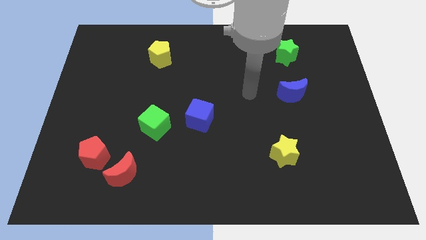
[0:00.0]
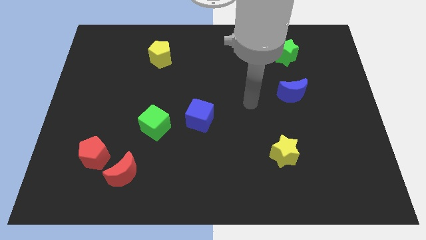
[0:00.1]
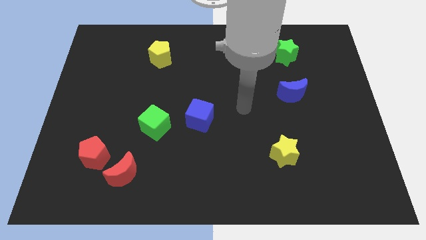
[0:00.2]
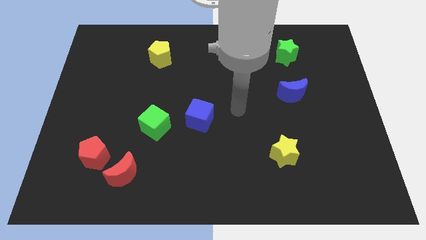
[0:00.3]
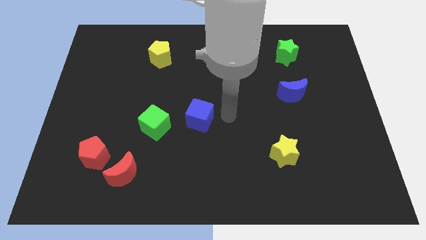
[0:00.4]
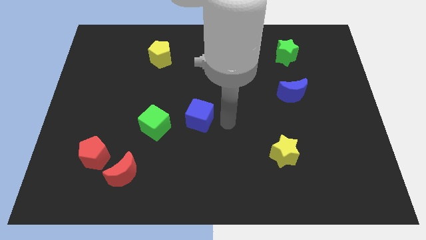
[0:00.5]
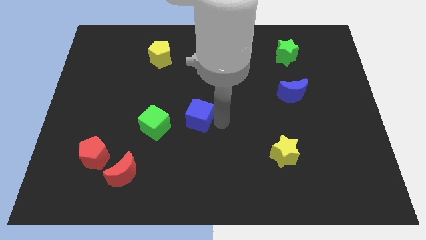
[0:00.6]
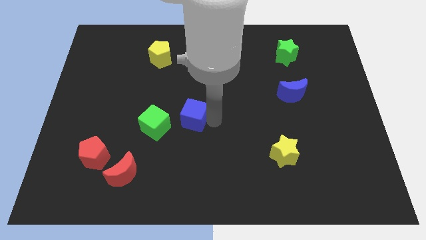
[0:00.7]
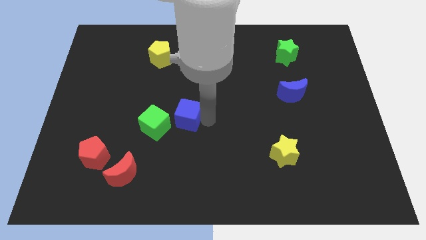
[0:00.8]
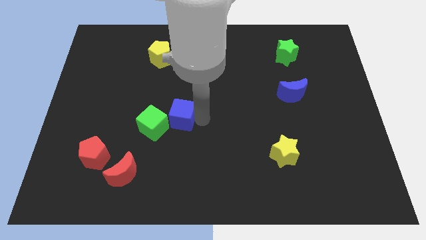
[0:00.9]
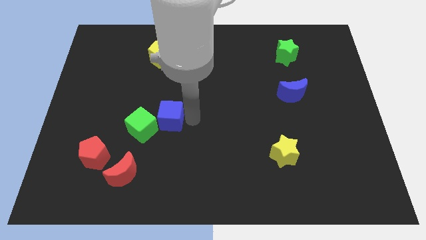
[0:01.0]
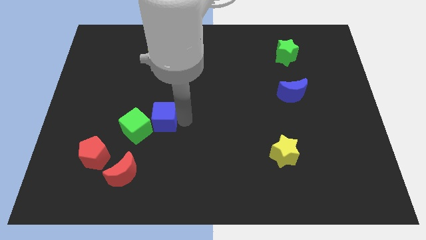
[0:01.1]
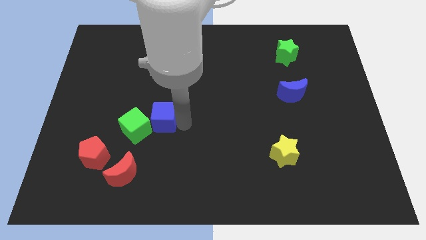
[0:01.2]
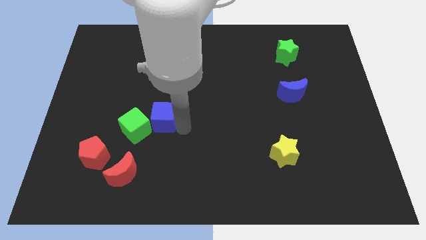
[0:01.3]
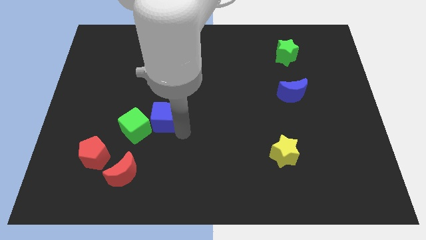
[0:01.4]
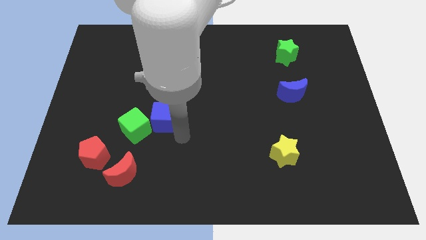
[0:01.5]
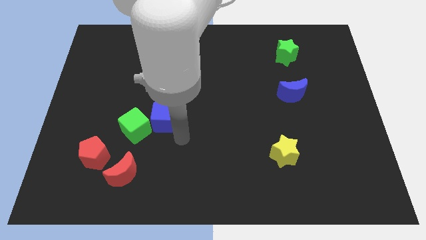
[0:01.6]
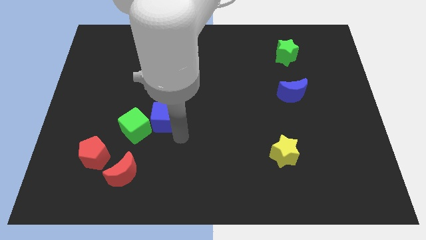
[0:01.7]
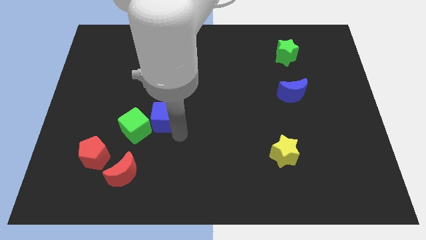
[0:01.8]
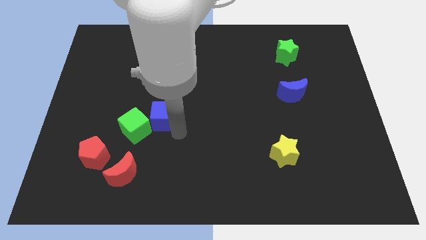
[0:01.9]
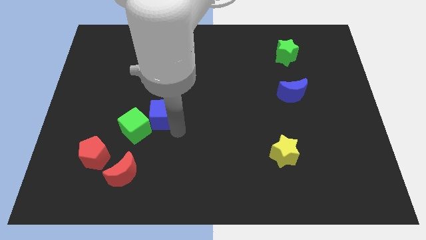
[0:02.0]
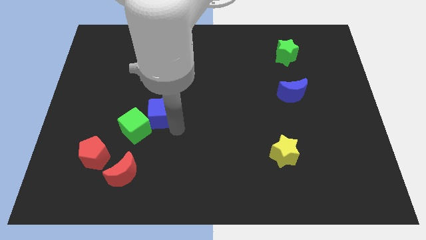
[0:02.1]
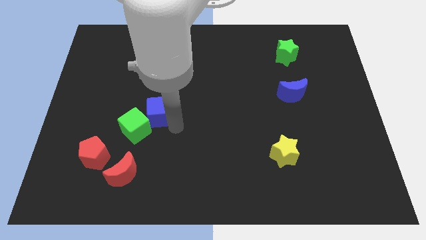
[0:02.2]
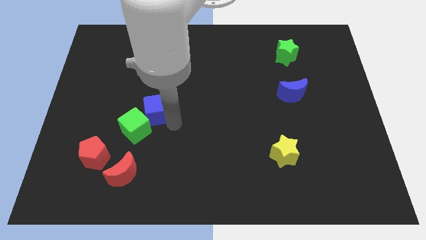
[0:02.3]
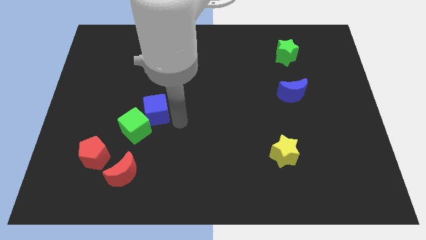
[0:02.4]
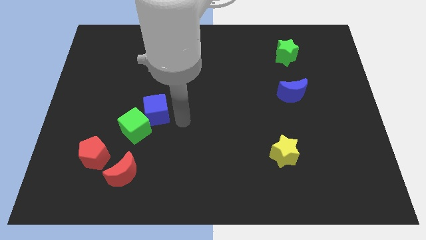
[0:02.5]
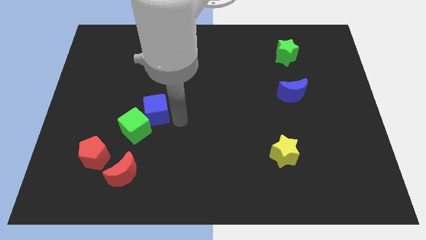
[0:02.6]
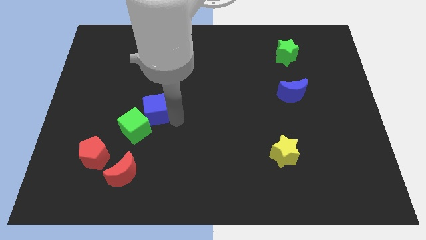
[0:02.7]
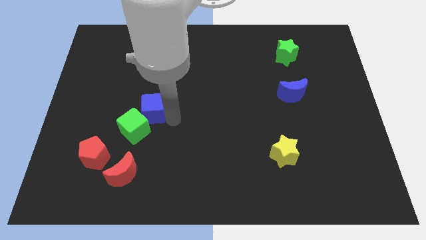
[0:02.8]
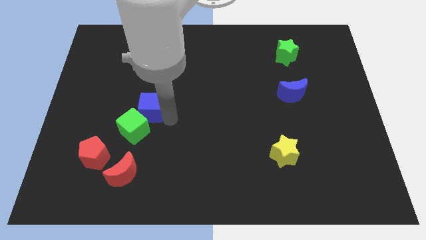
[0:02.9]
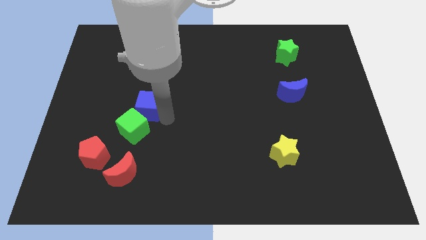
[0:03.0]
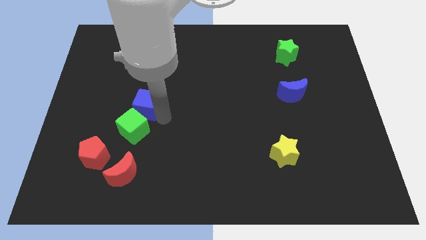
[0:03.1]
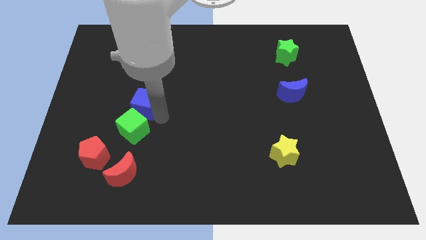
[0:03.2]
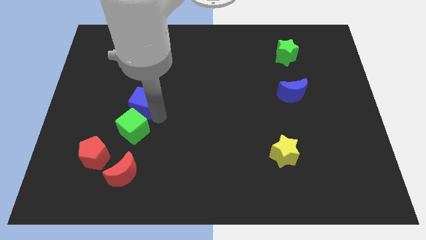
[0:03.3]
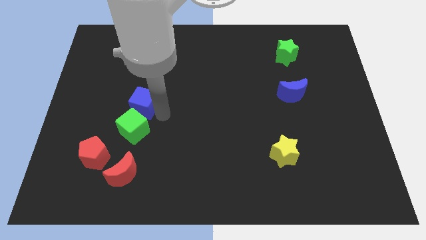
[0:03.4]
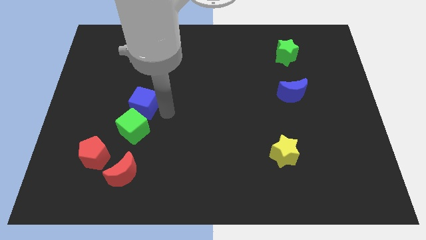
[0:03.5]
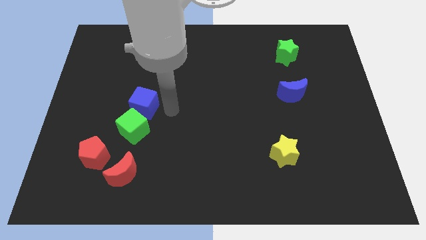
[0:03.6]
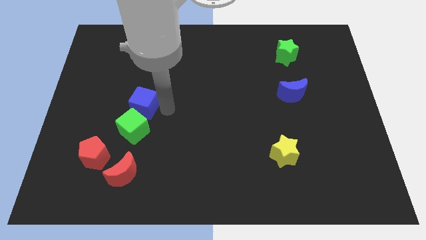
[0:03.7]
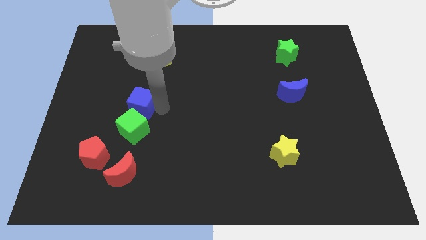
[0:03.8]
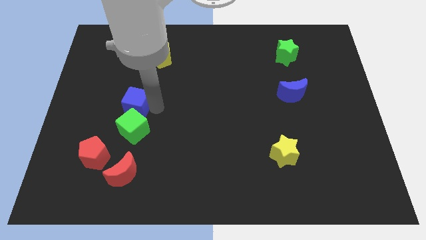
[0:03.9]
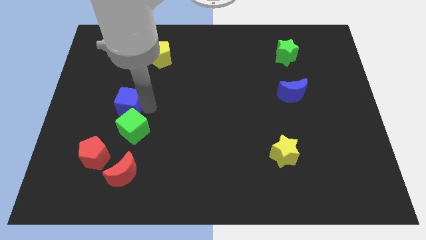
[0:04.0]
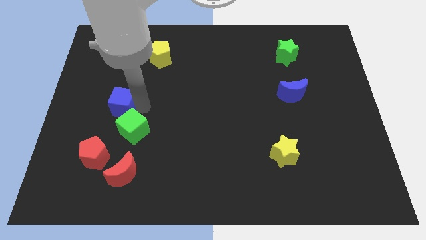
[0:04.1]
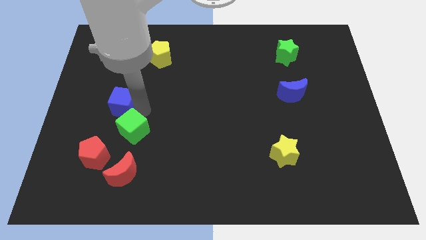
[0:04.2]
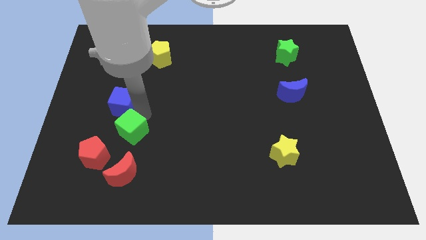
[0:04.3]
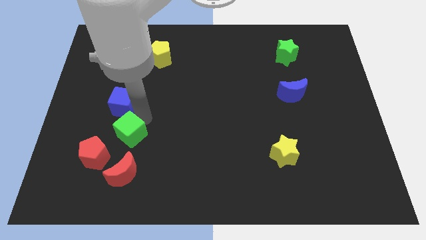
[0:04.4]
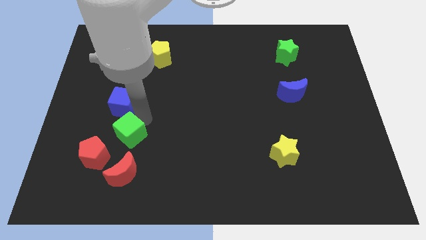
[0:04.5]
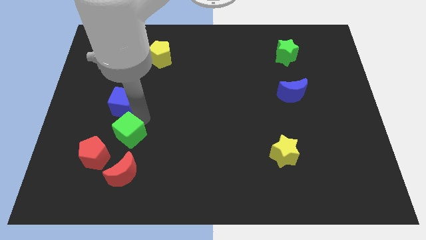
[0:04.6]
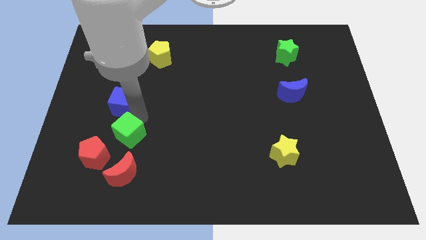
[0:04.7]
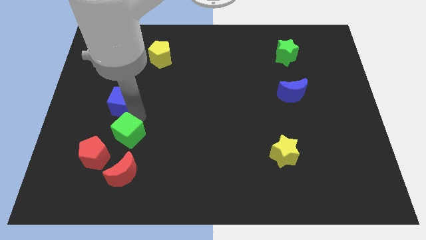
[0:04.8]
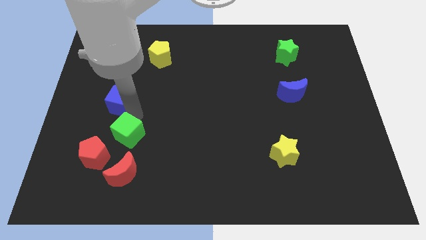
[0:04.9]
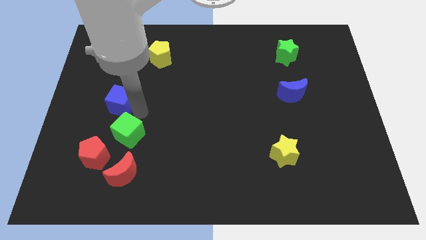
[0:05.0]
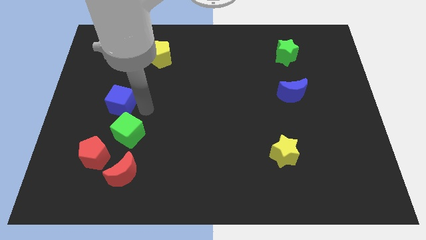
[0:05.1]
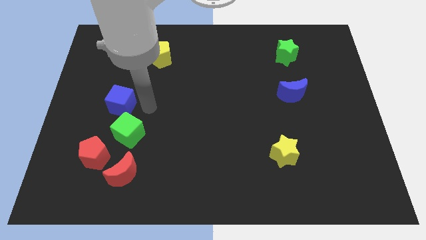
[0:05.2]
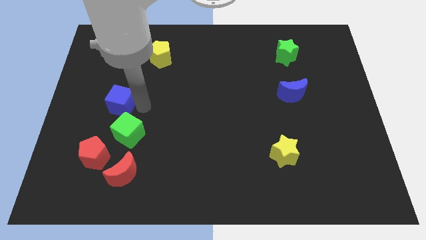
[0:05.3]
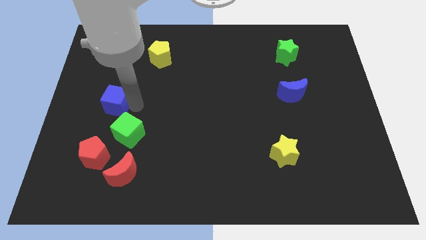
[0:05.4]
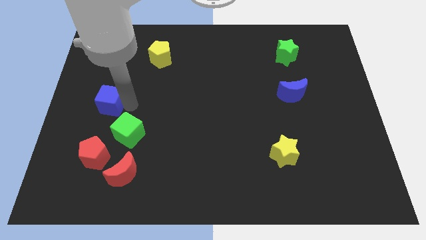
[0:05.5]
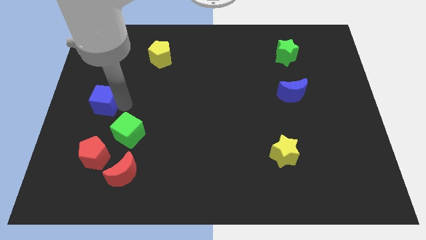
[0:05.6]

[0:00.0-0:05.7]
slide the blue cube to the left side of the board
